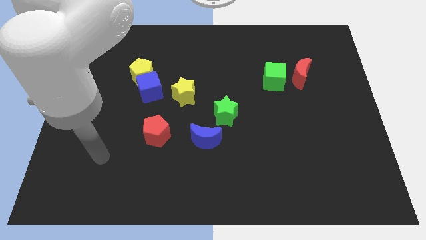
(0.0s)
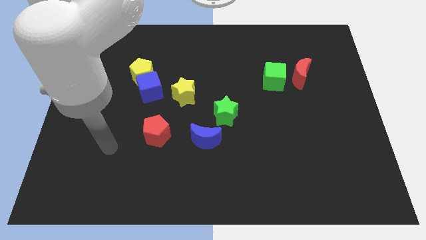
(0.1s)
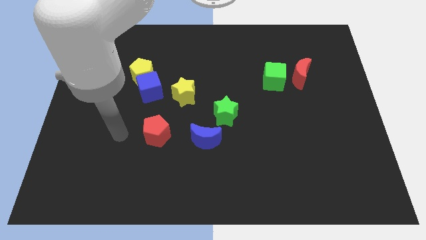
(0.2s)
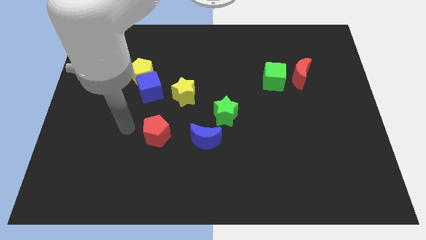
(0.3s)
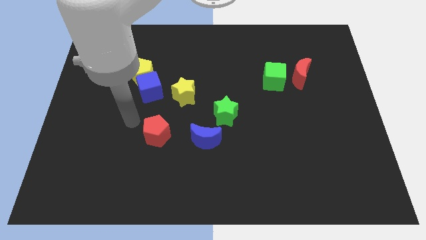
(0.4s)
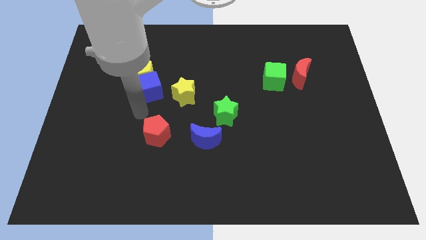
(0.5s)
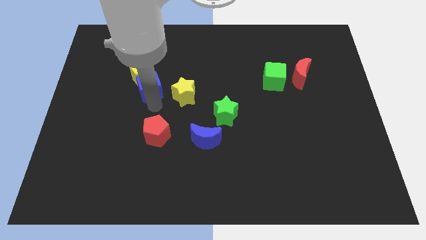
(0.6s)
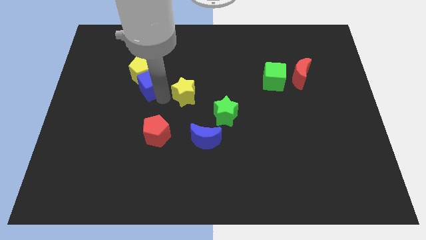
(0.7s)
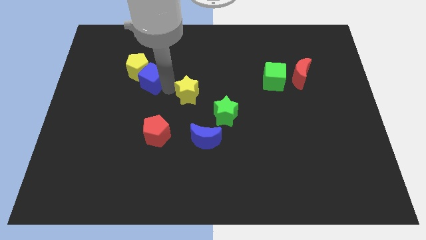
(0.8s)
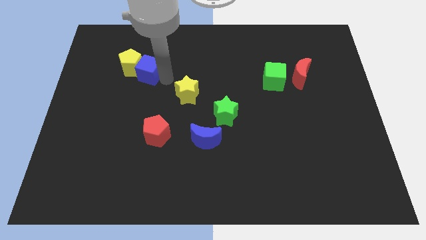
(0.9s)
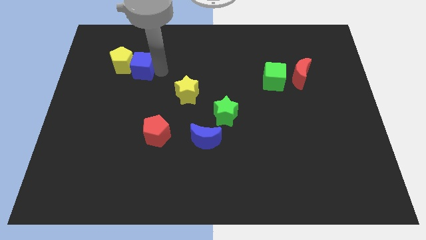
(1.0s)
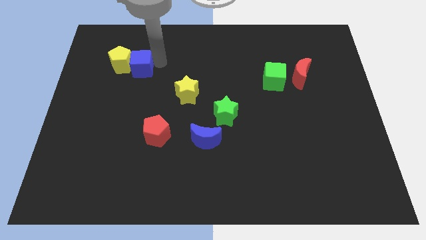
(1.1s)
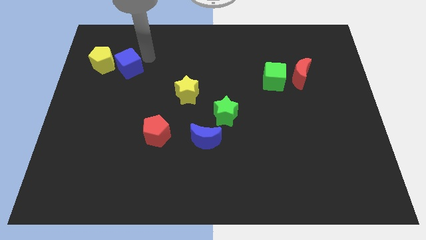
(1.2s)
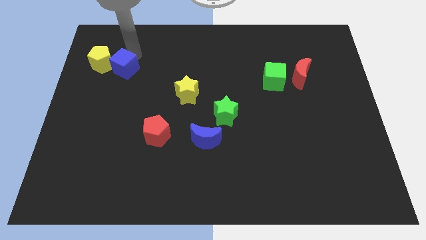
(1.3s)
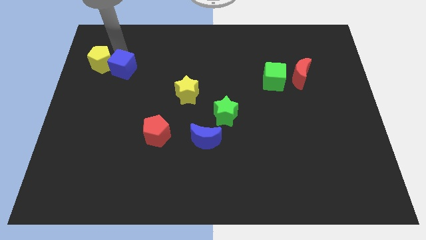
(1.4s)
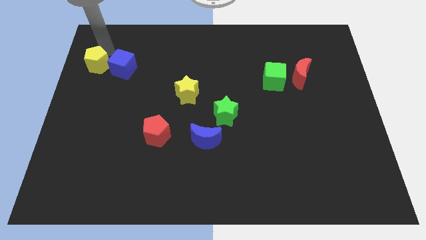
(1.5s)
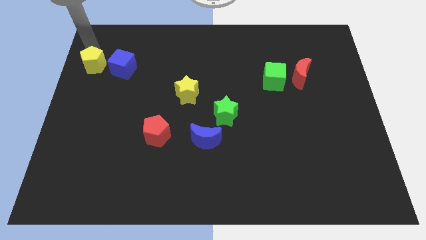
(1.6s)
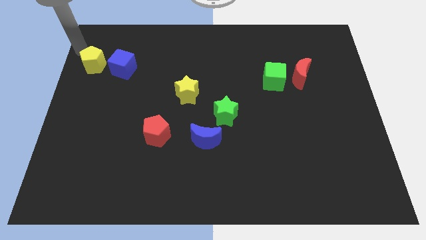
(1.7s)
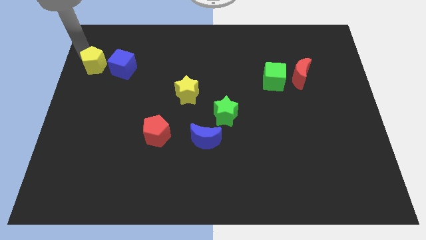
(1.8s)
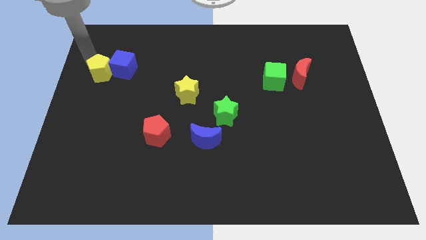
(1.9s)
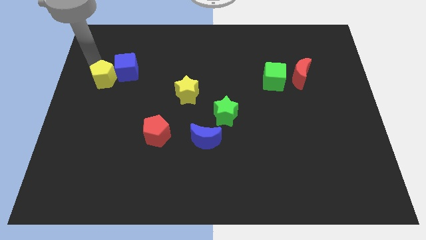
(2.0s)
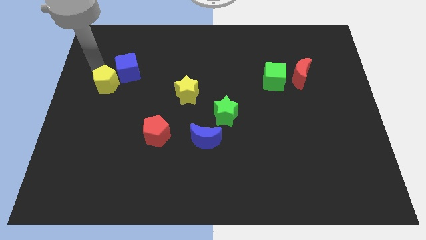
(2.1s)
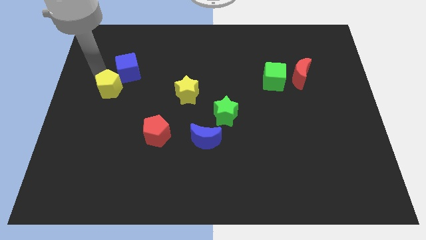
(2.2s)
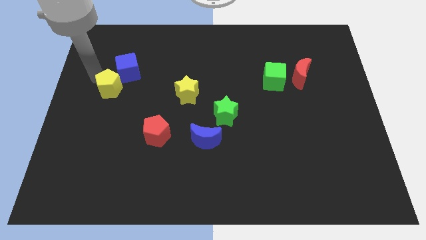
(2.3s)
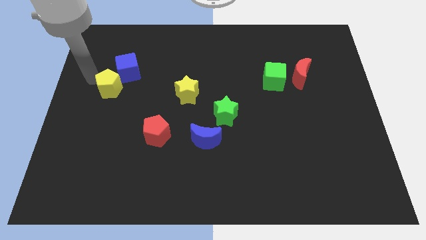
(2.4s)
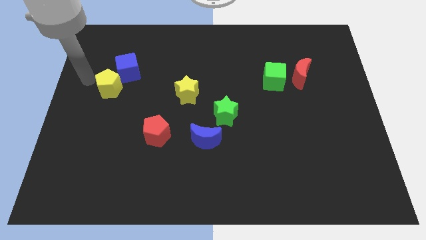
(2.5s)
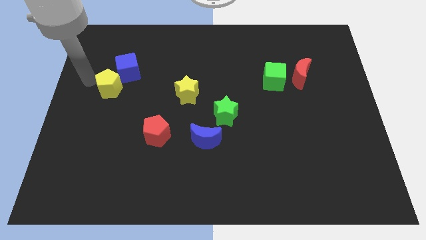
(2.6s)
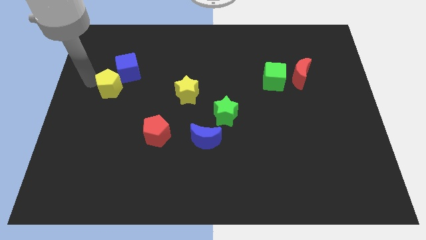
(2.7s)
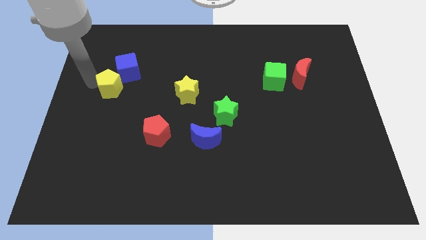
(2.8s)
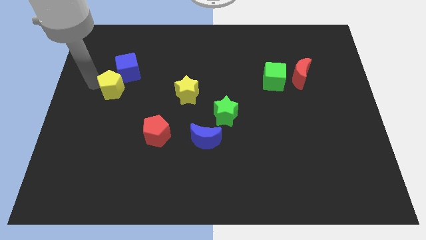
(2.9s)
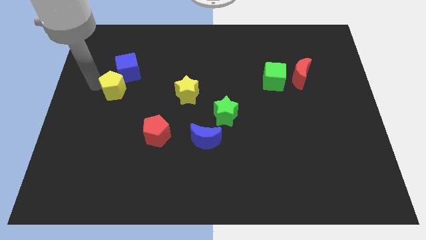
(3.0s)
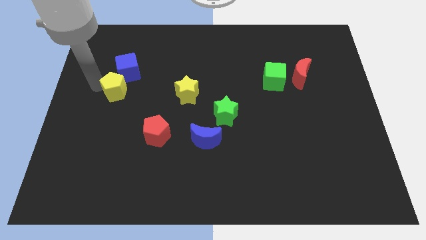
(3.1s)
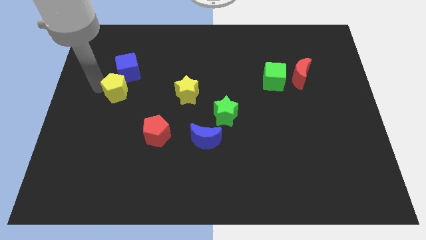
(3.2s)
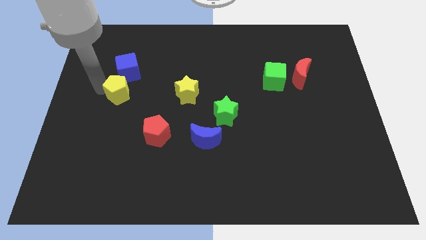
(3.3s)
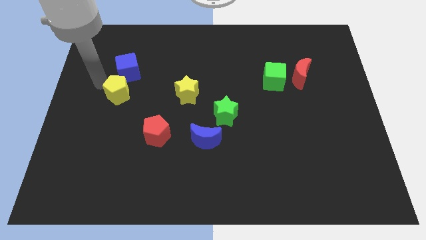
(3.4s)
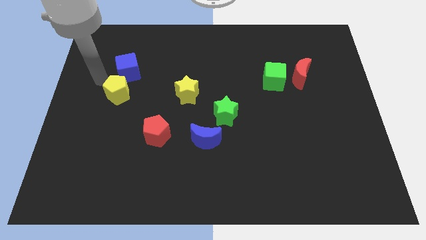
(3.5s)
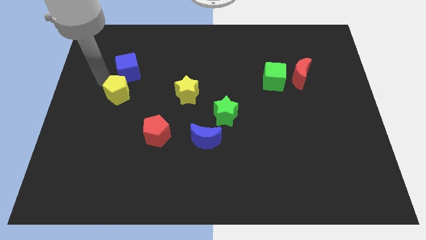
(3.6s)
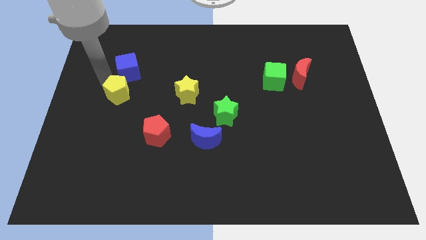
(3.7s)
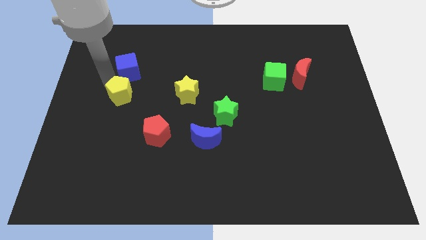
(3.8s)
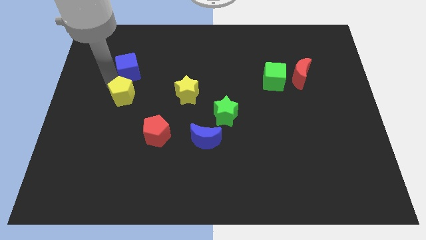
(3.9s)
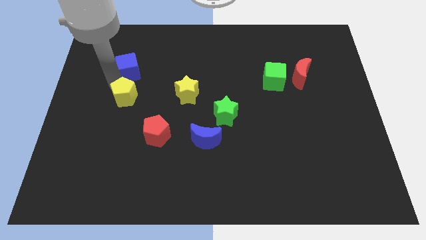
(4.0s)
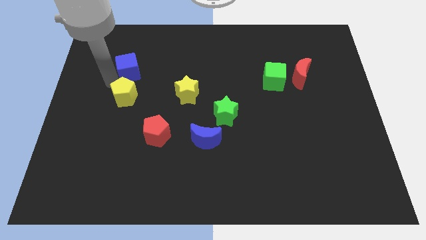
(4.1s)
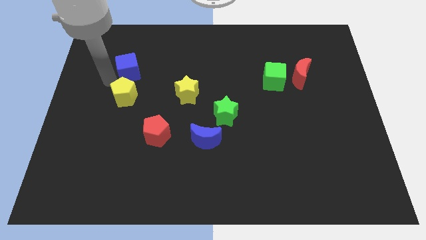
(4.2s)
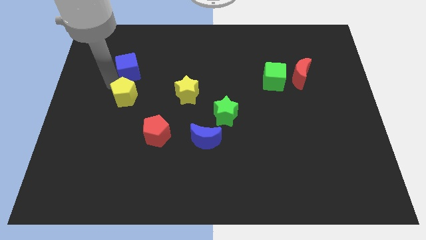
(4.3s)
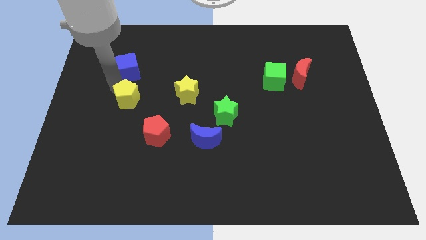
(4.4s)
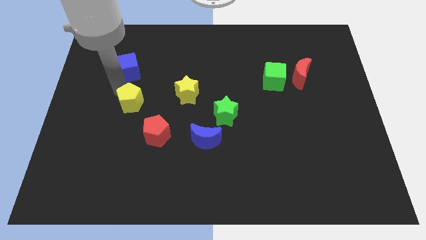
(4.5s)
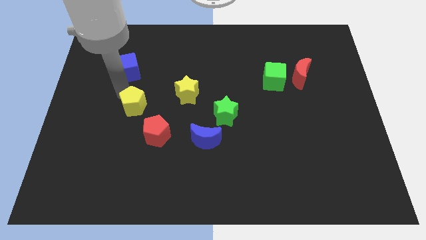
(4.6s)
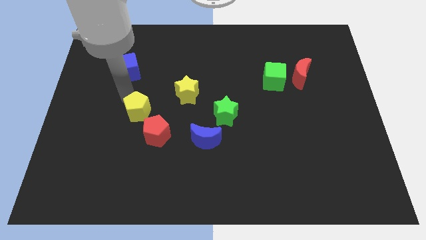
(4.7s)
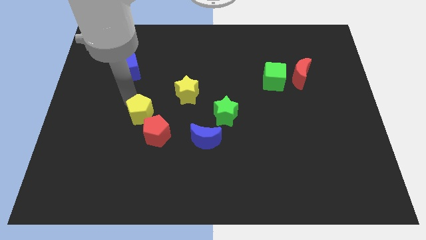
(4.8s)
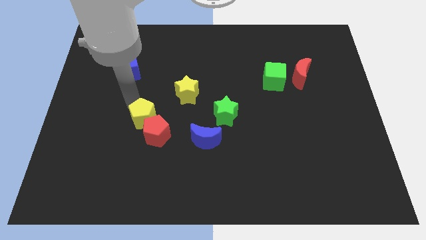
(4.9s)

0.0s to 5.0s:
put the yellow pentagon to the red pentagon
